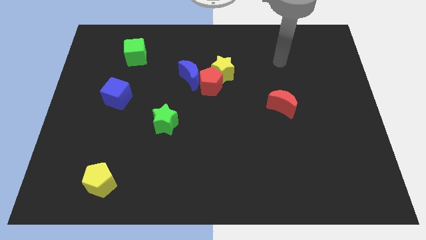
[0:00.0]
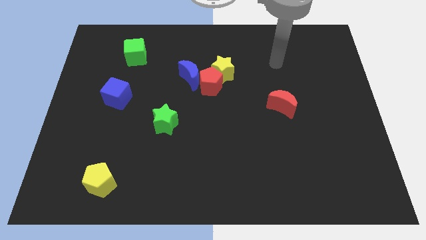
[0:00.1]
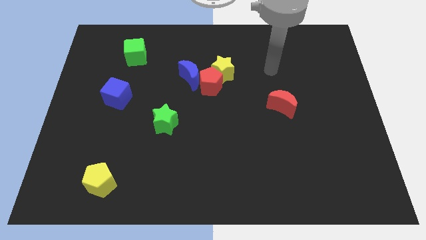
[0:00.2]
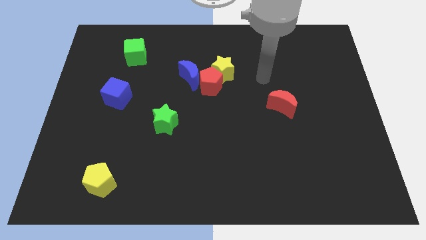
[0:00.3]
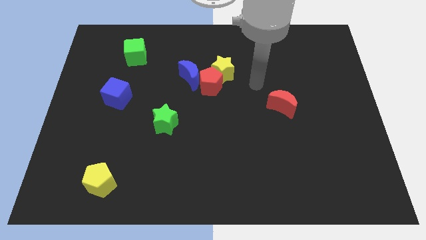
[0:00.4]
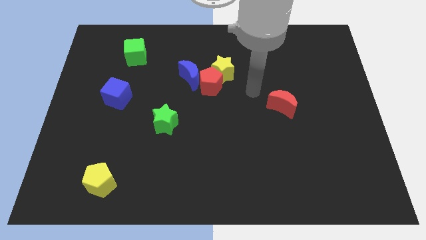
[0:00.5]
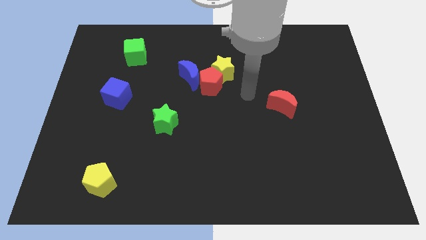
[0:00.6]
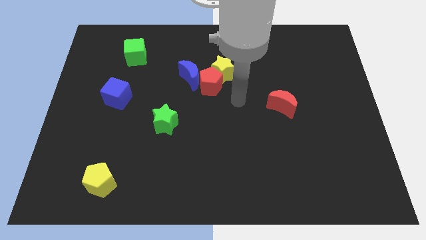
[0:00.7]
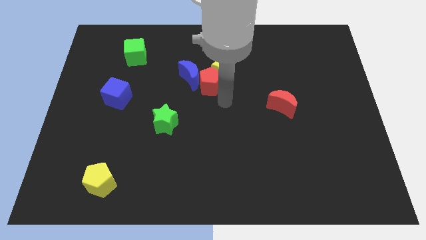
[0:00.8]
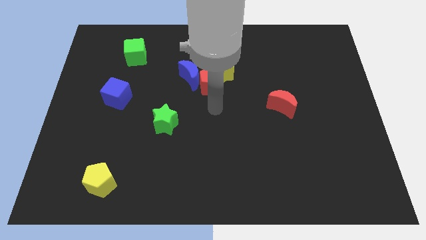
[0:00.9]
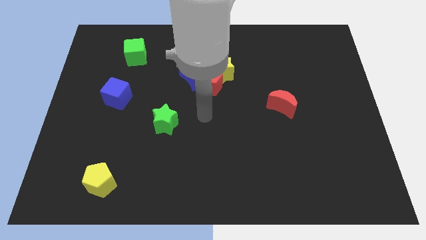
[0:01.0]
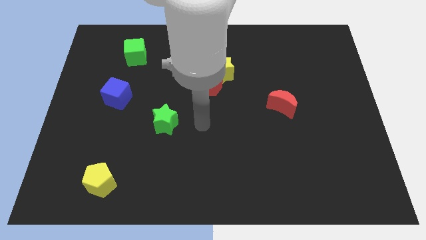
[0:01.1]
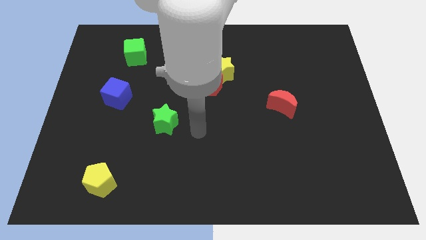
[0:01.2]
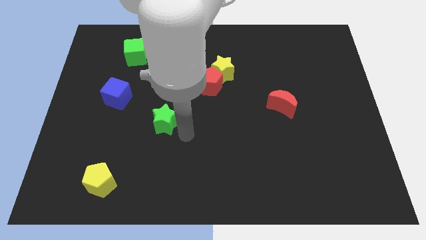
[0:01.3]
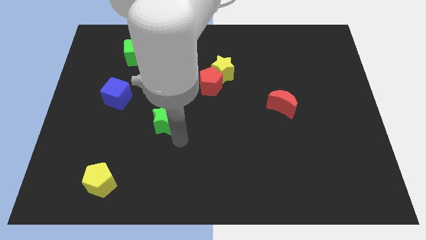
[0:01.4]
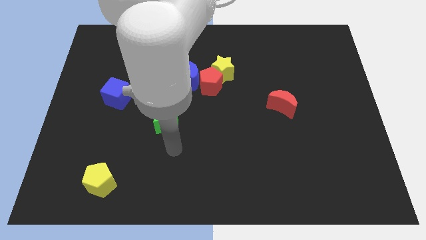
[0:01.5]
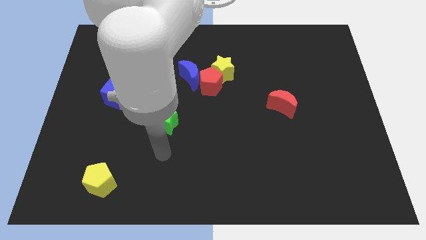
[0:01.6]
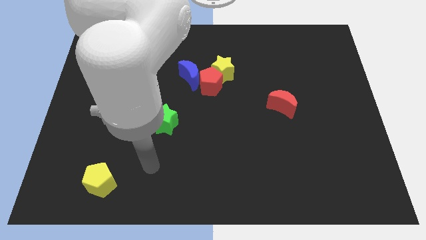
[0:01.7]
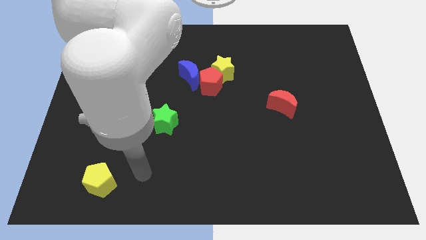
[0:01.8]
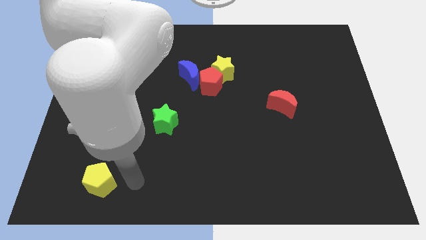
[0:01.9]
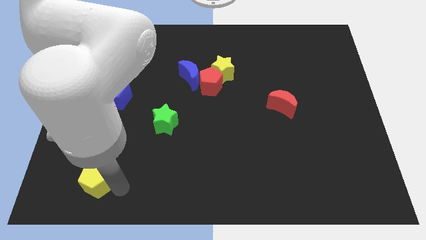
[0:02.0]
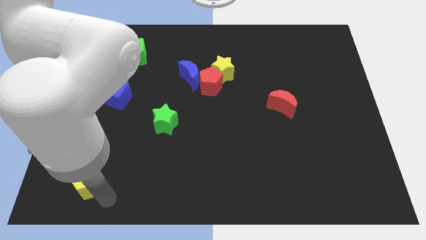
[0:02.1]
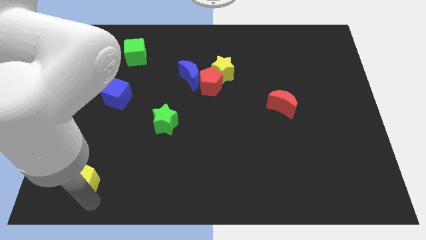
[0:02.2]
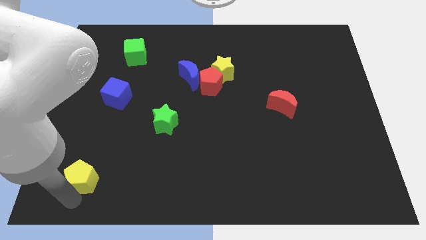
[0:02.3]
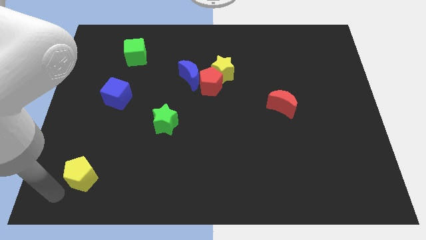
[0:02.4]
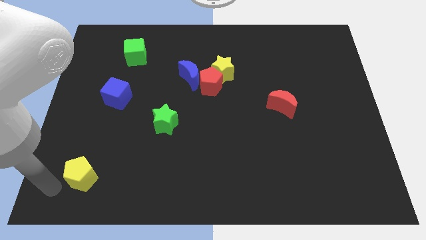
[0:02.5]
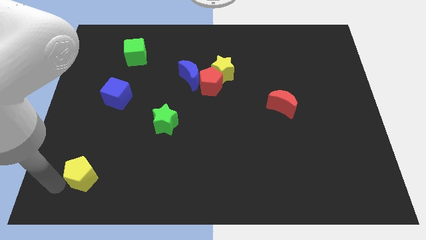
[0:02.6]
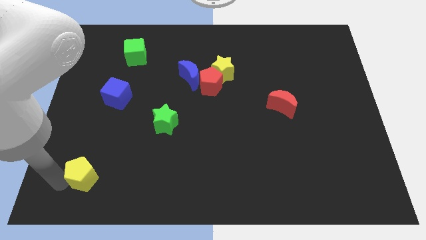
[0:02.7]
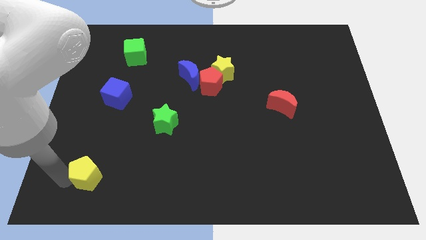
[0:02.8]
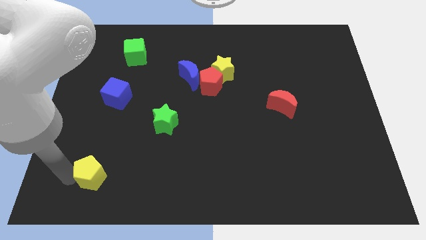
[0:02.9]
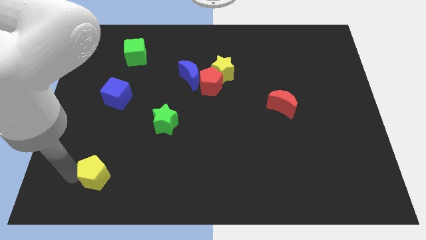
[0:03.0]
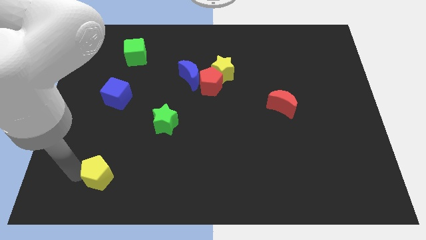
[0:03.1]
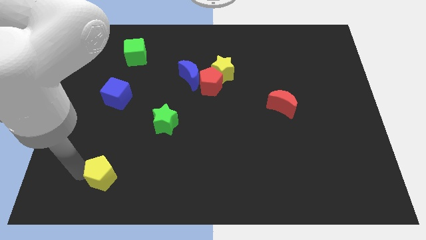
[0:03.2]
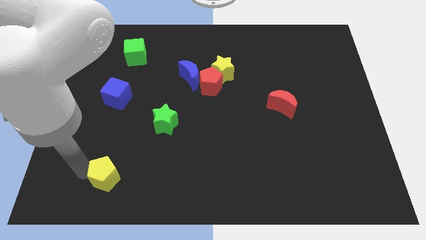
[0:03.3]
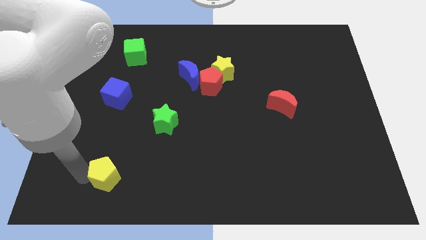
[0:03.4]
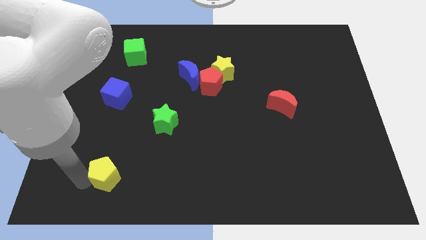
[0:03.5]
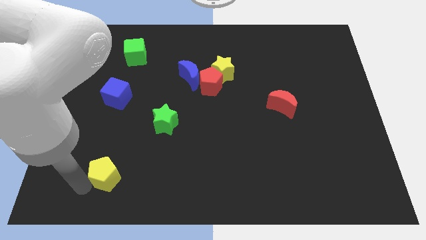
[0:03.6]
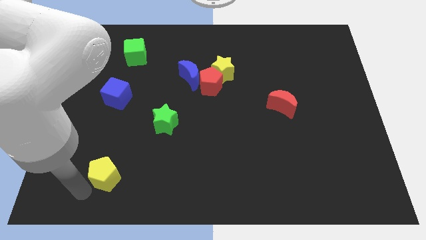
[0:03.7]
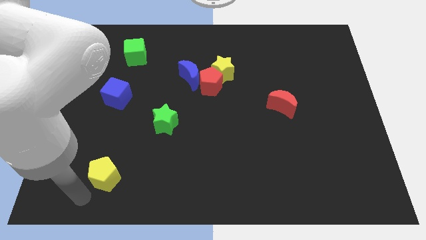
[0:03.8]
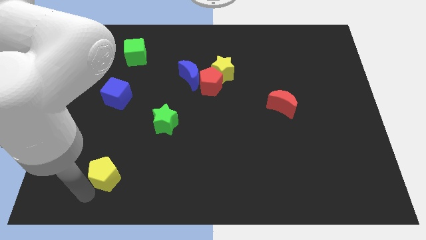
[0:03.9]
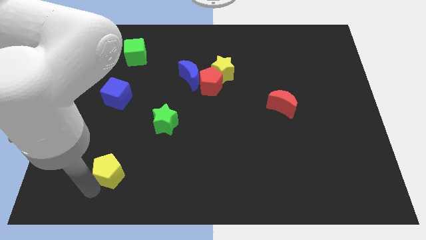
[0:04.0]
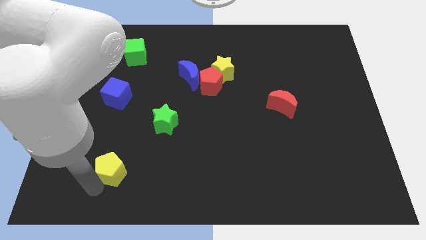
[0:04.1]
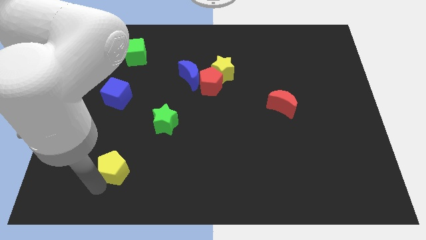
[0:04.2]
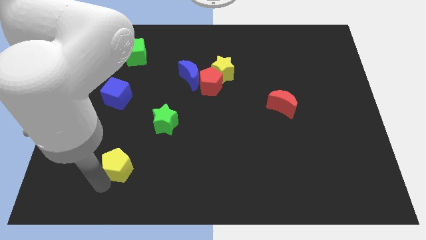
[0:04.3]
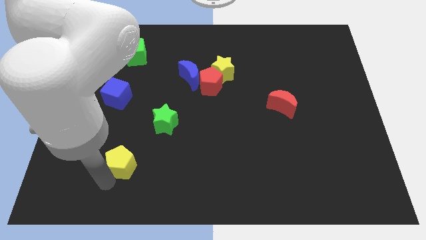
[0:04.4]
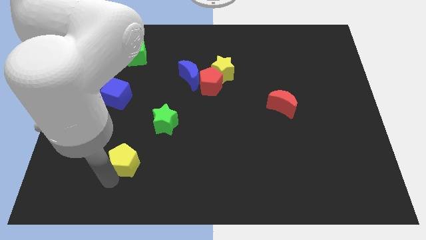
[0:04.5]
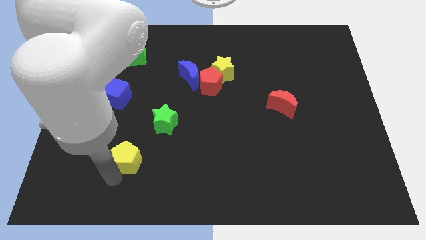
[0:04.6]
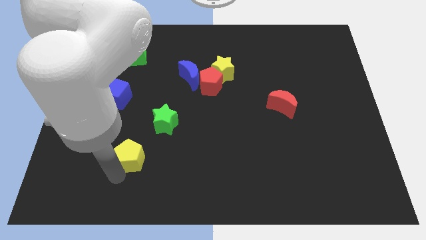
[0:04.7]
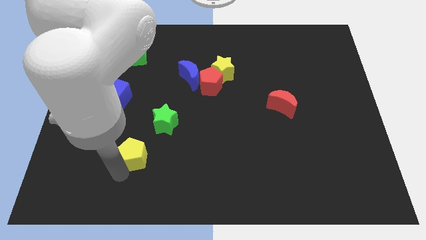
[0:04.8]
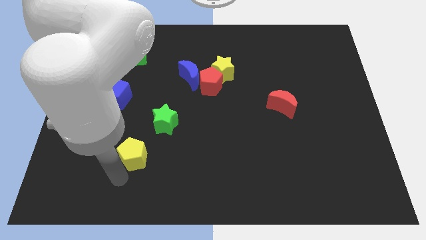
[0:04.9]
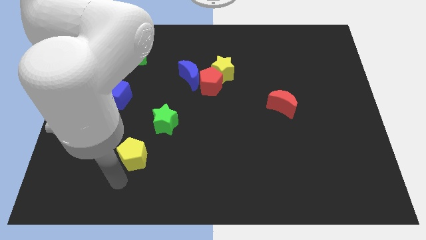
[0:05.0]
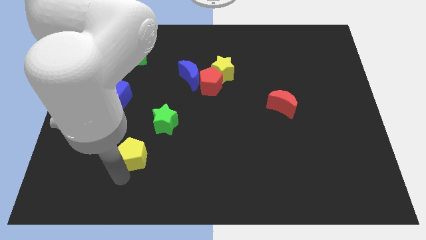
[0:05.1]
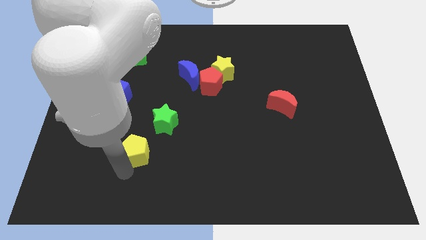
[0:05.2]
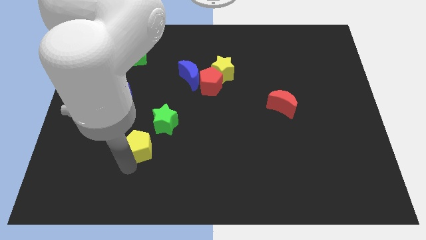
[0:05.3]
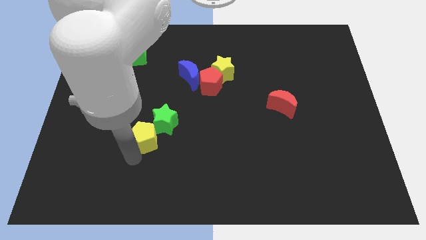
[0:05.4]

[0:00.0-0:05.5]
slide the yellow pentagon towards the green star

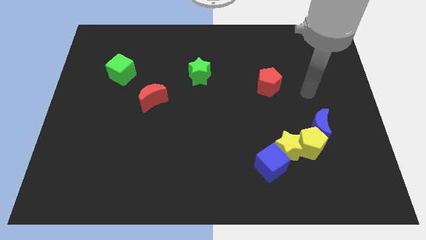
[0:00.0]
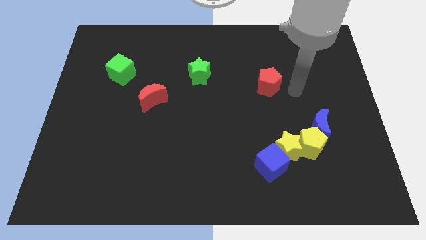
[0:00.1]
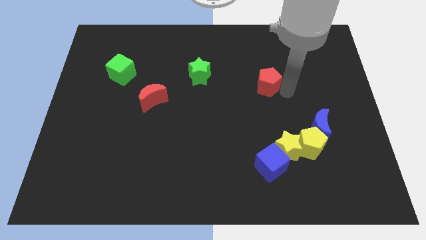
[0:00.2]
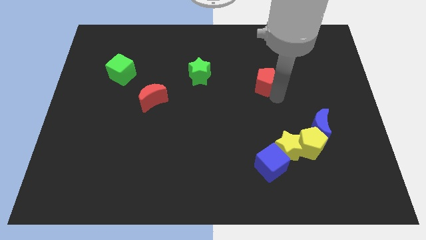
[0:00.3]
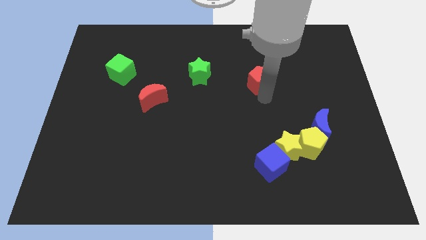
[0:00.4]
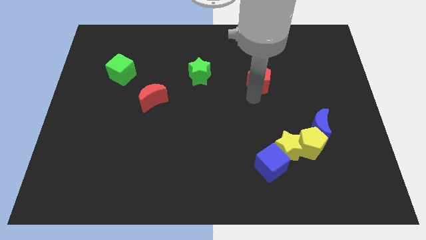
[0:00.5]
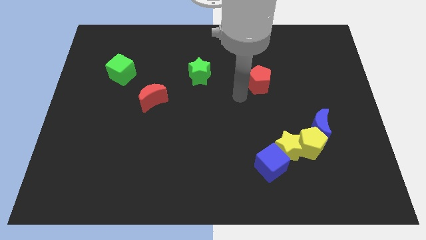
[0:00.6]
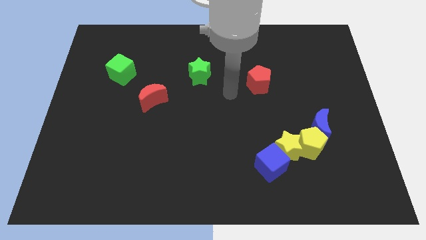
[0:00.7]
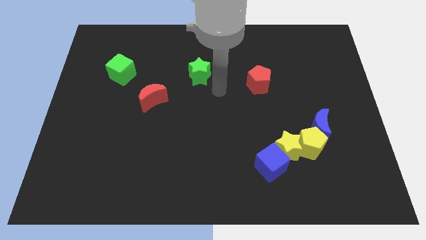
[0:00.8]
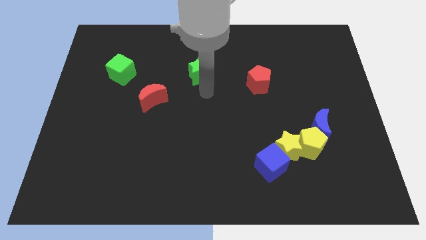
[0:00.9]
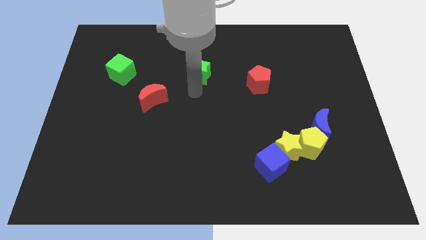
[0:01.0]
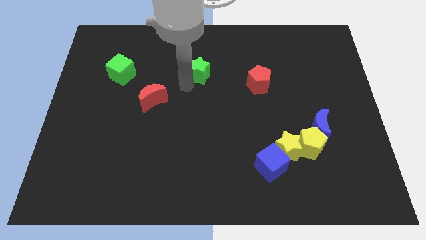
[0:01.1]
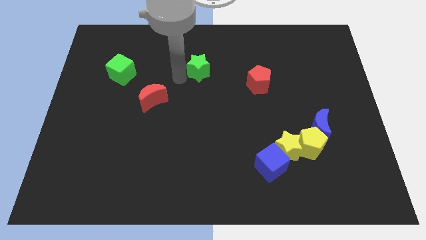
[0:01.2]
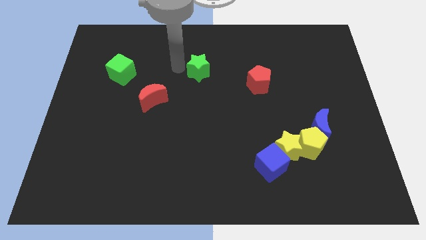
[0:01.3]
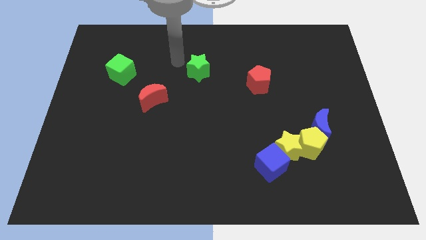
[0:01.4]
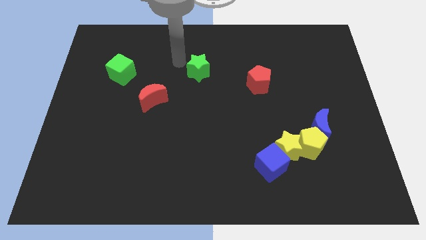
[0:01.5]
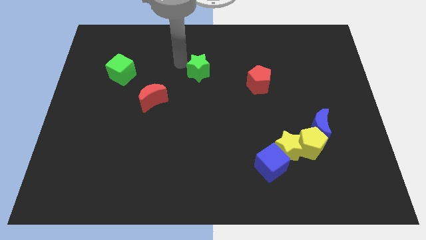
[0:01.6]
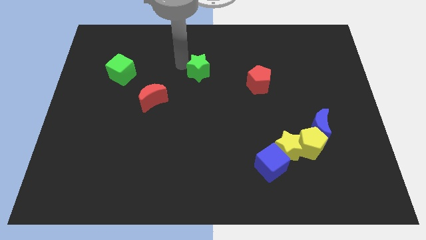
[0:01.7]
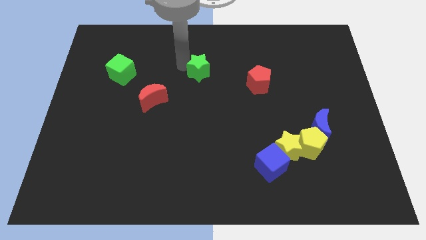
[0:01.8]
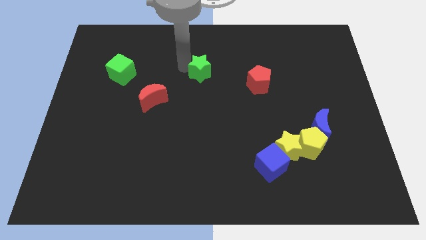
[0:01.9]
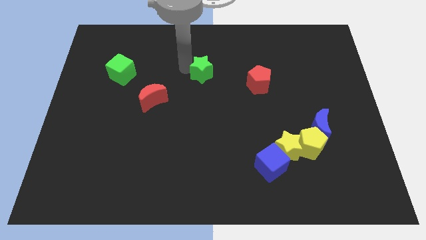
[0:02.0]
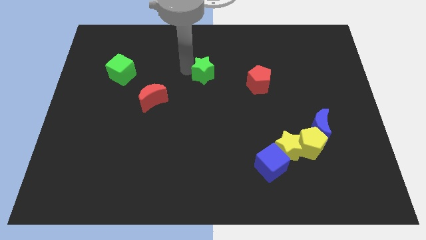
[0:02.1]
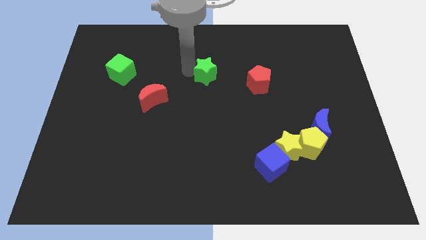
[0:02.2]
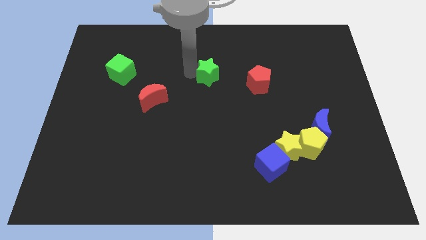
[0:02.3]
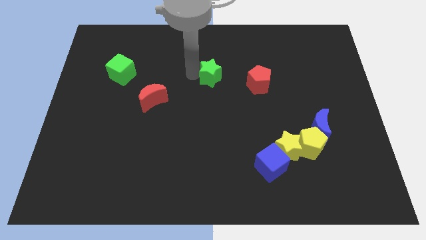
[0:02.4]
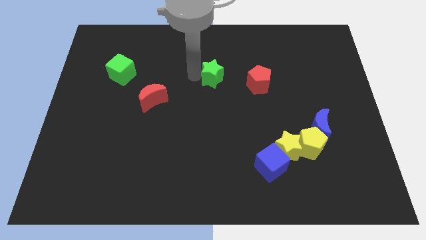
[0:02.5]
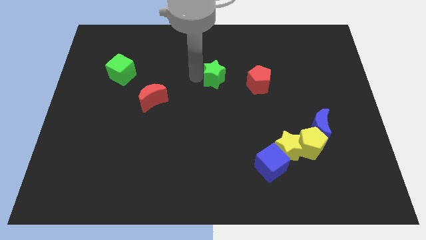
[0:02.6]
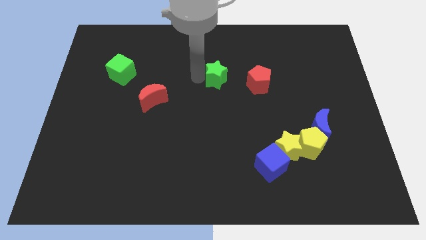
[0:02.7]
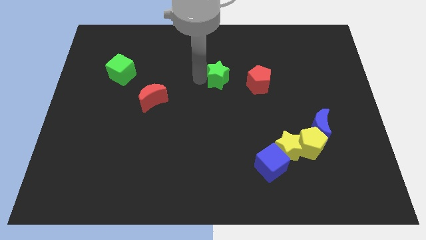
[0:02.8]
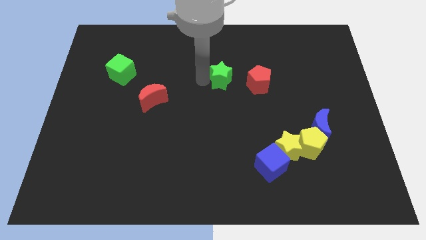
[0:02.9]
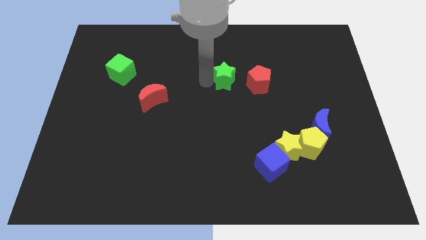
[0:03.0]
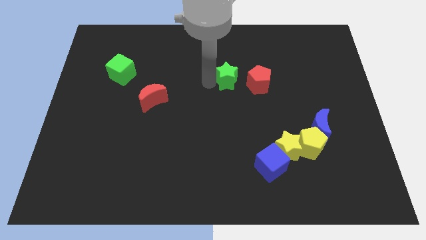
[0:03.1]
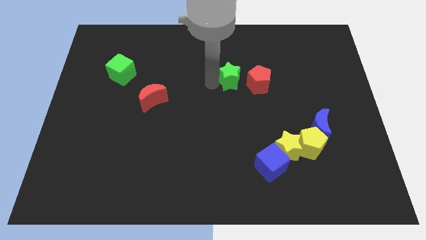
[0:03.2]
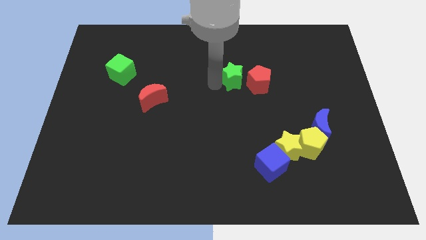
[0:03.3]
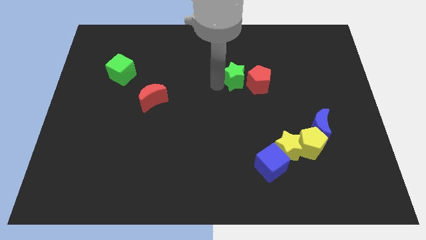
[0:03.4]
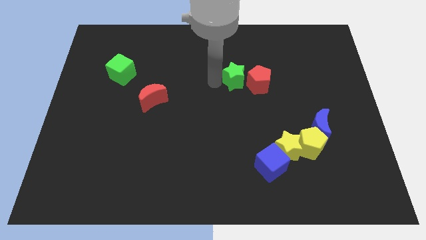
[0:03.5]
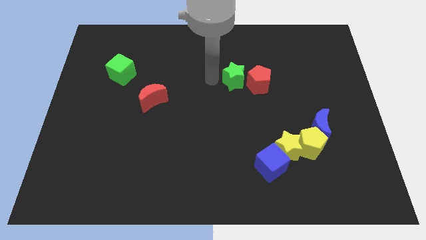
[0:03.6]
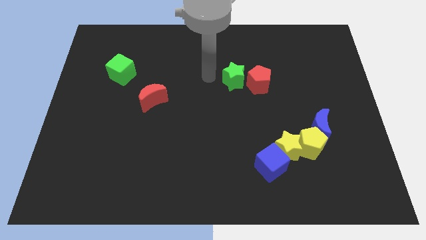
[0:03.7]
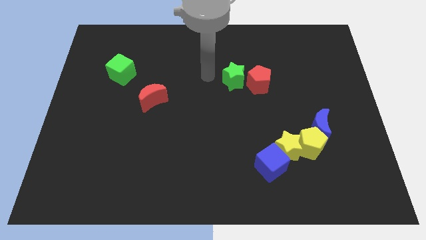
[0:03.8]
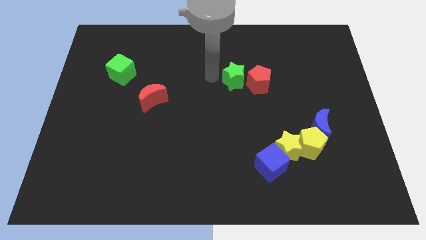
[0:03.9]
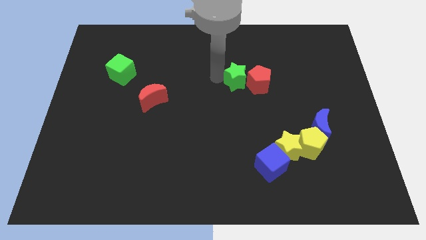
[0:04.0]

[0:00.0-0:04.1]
push the green star close to the red pentagon
